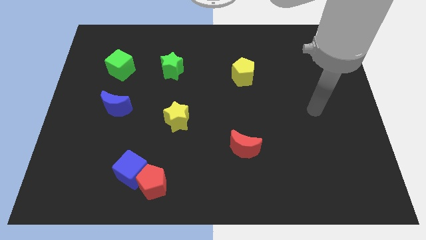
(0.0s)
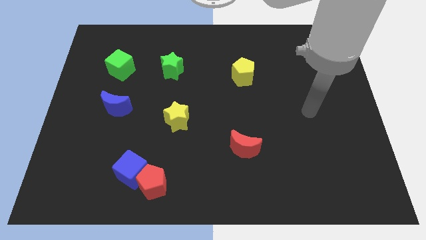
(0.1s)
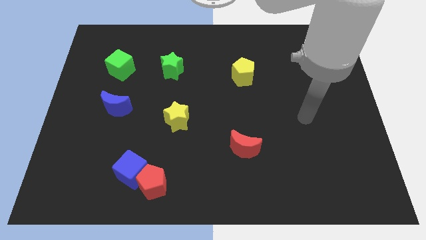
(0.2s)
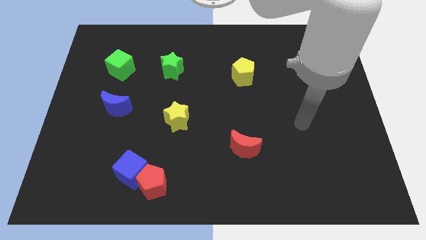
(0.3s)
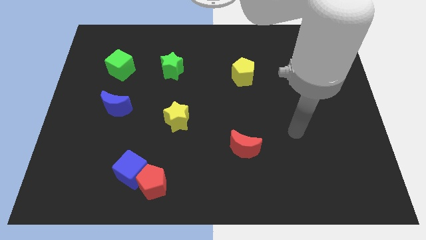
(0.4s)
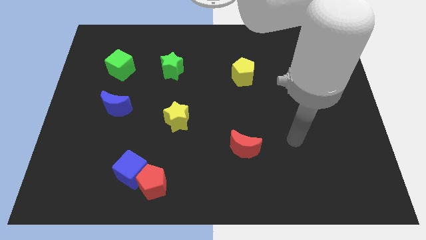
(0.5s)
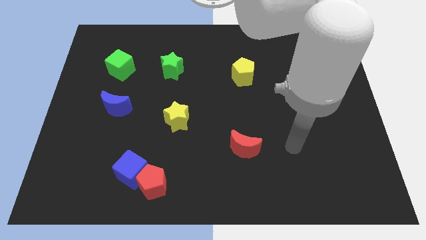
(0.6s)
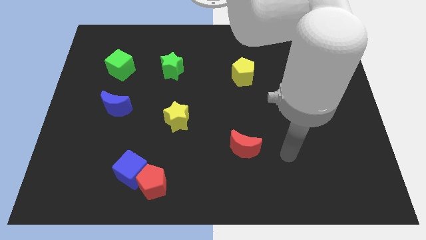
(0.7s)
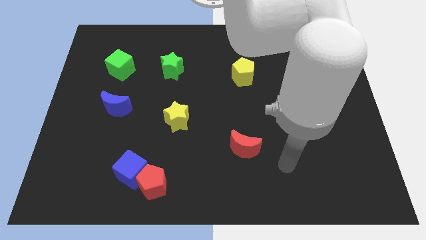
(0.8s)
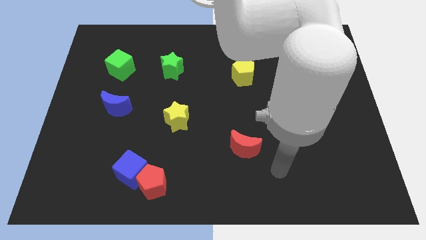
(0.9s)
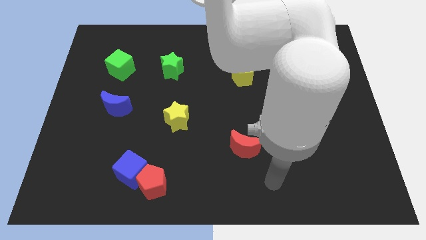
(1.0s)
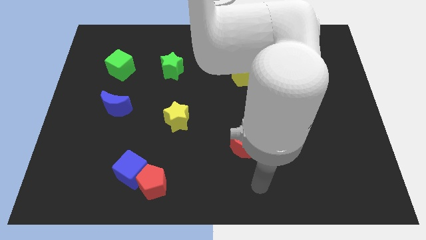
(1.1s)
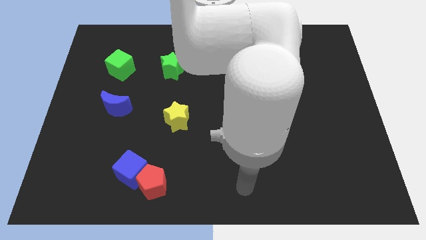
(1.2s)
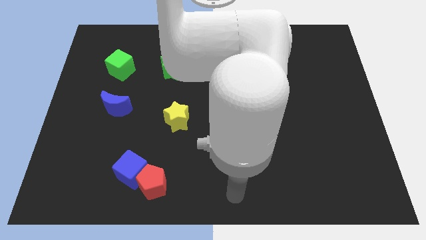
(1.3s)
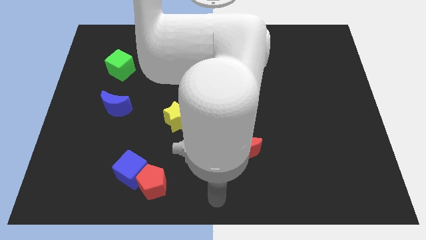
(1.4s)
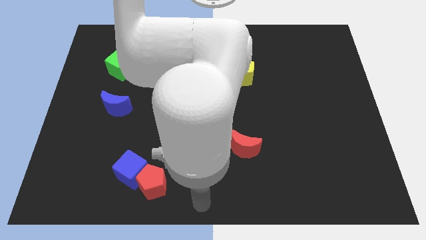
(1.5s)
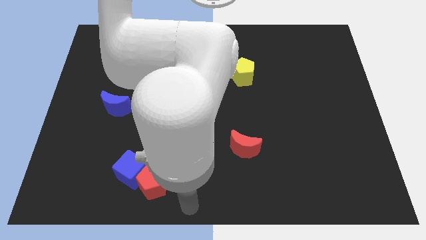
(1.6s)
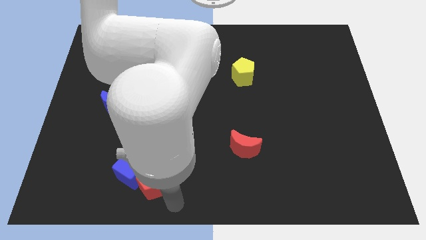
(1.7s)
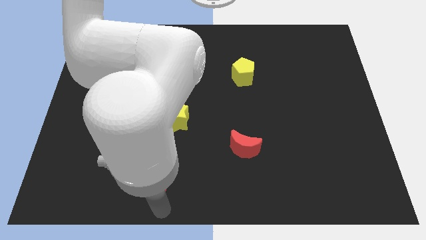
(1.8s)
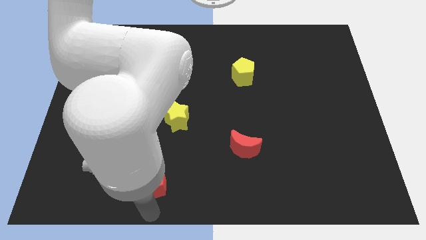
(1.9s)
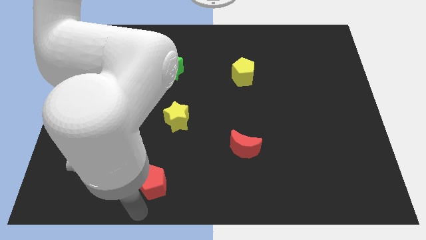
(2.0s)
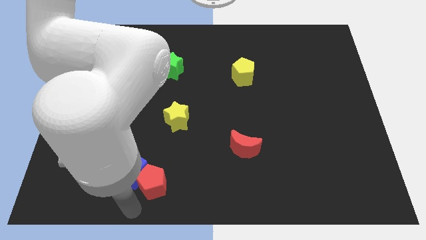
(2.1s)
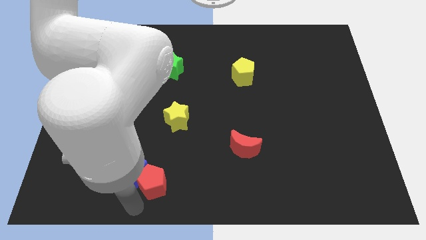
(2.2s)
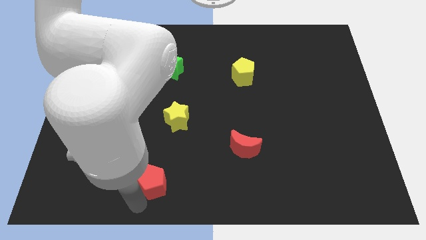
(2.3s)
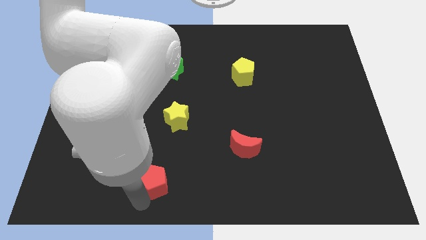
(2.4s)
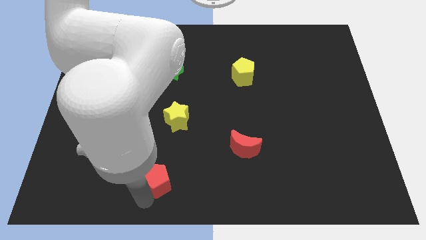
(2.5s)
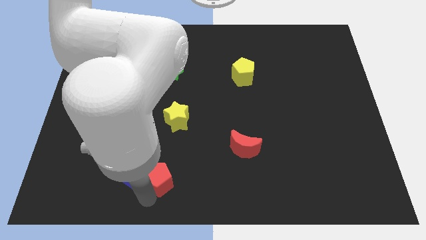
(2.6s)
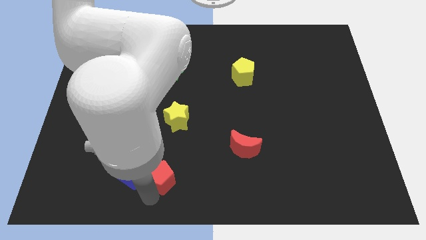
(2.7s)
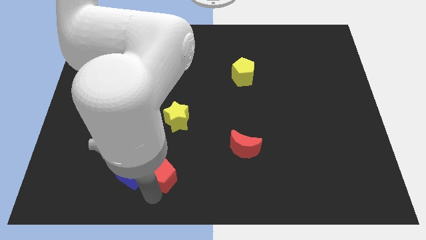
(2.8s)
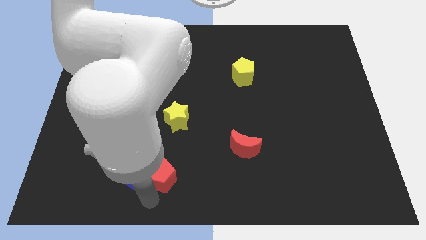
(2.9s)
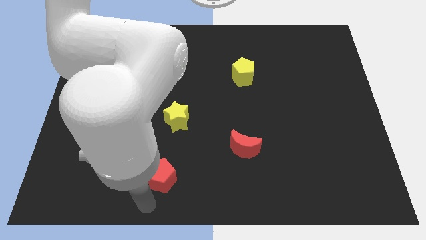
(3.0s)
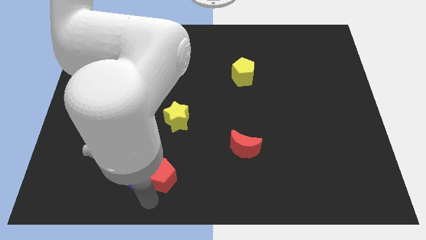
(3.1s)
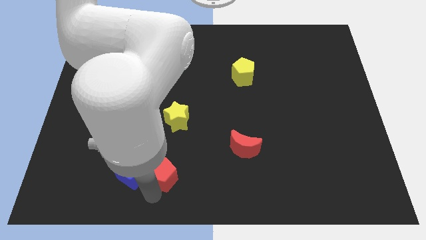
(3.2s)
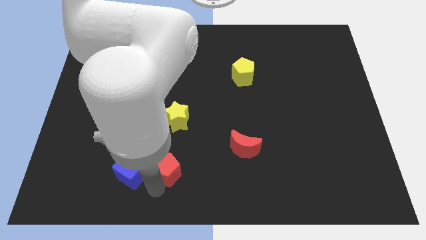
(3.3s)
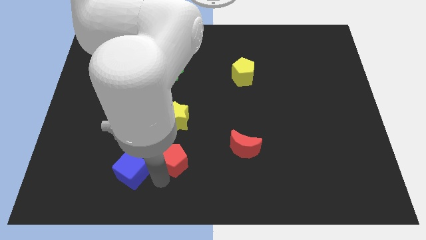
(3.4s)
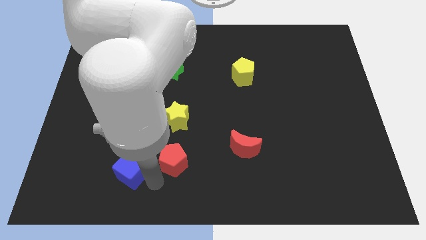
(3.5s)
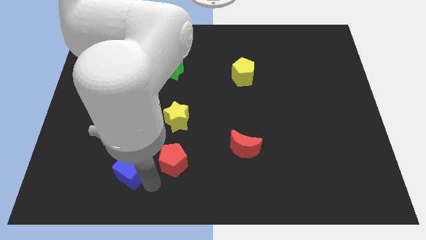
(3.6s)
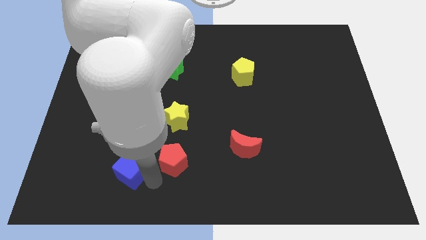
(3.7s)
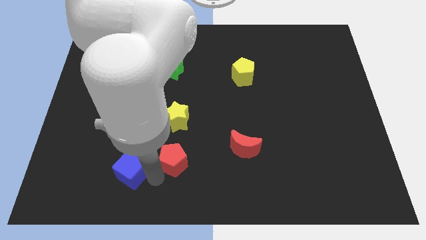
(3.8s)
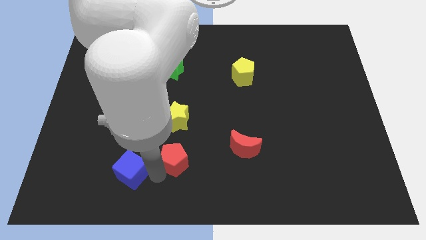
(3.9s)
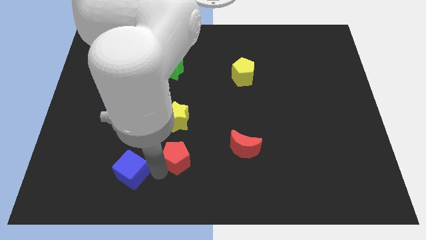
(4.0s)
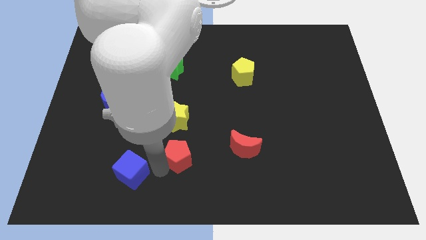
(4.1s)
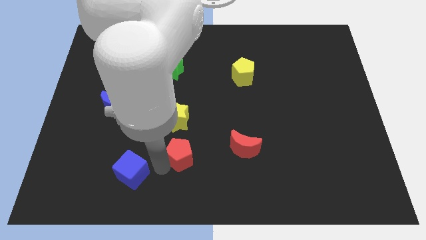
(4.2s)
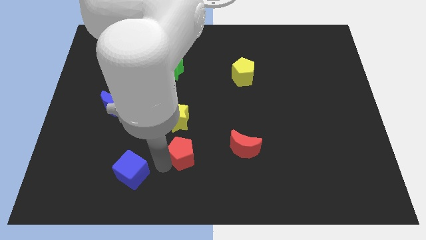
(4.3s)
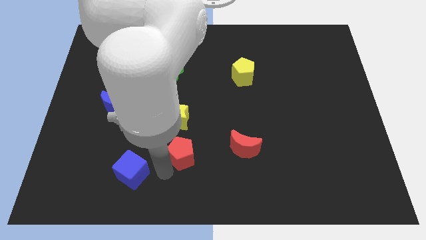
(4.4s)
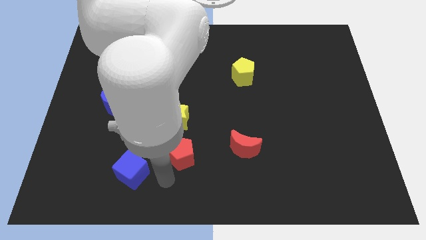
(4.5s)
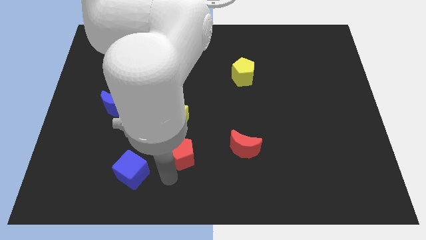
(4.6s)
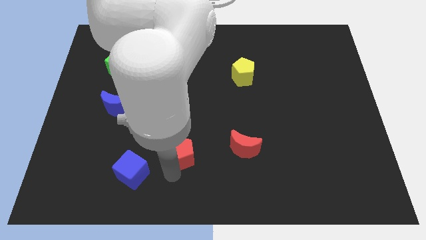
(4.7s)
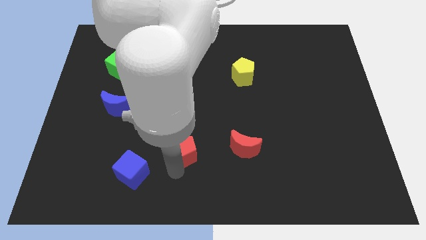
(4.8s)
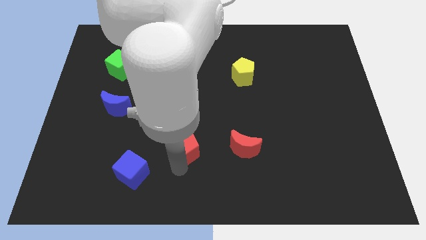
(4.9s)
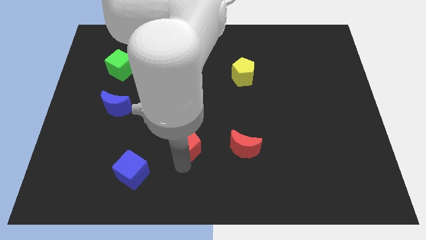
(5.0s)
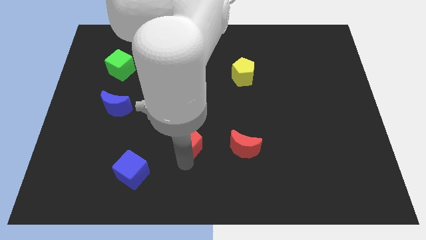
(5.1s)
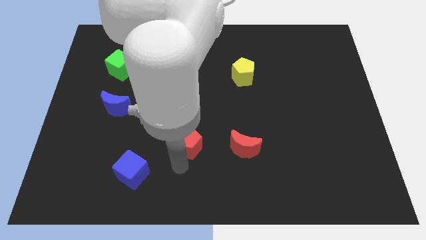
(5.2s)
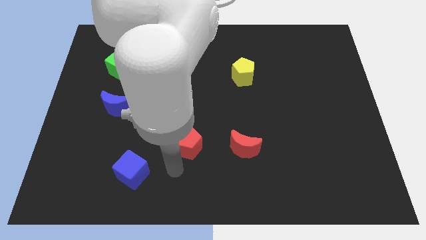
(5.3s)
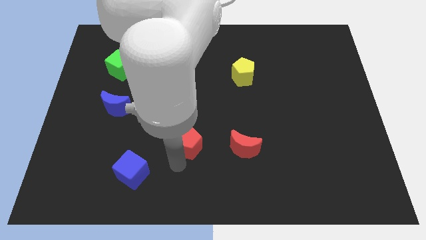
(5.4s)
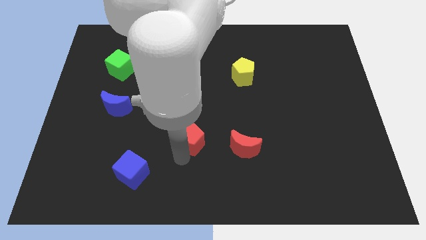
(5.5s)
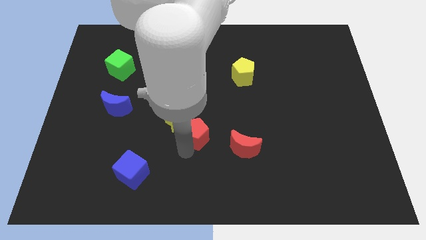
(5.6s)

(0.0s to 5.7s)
put the red pentagon to the middle
